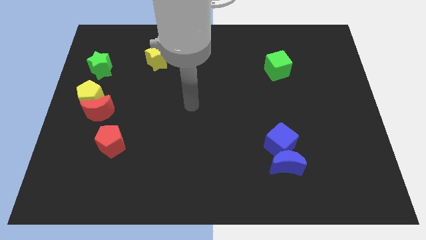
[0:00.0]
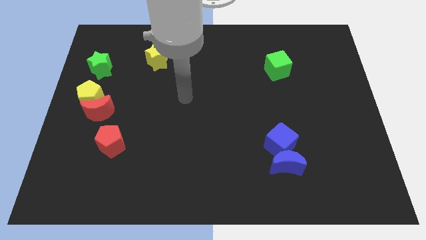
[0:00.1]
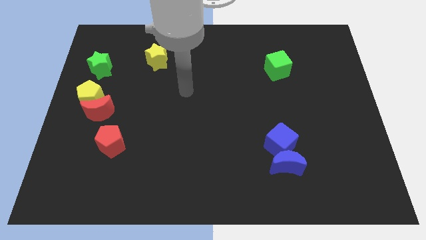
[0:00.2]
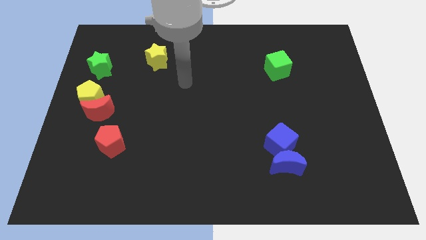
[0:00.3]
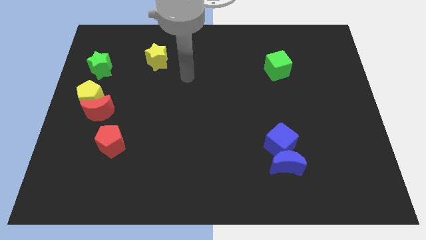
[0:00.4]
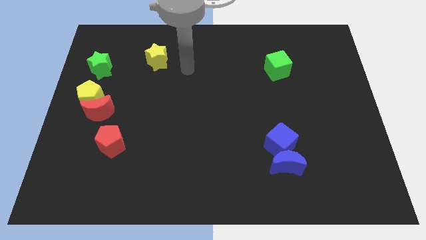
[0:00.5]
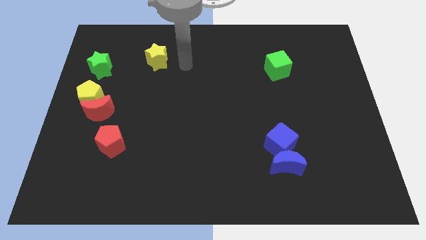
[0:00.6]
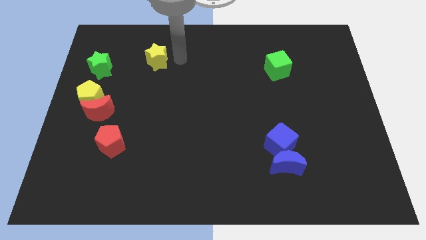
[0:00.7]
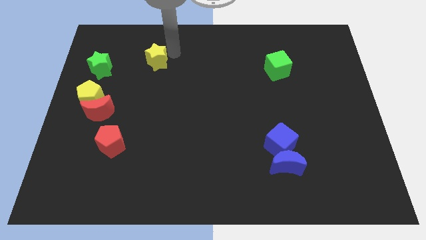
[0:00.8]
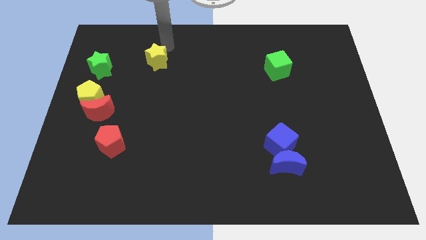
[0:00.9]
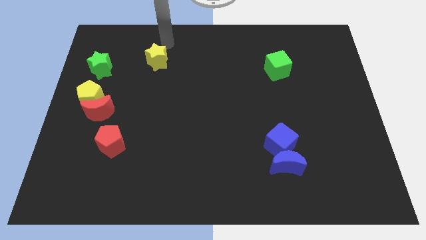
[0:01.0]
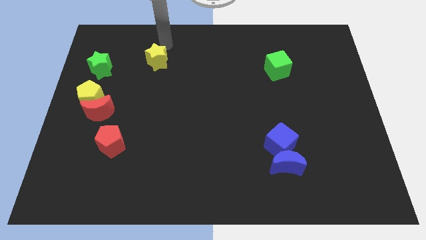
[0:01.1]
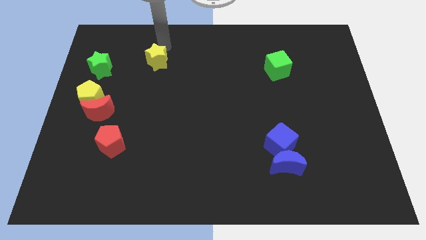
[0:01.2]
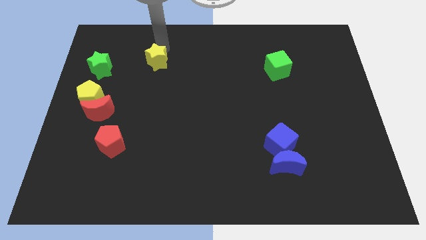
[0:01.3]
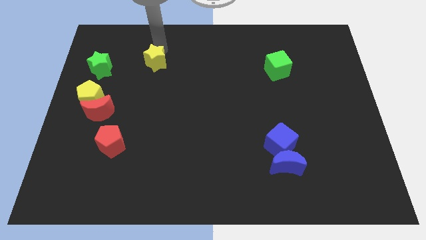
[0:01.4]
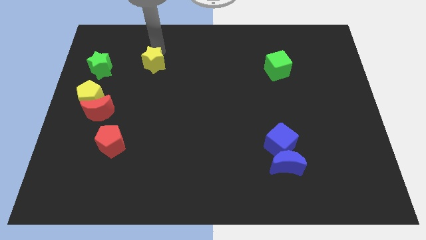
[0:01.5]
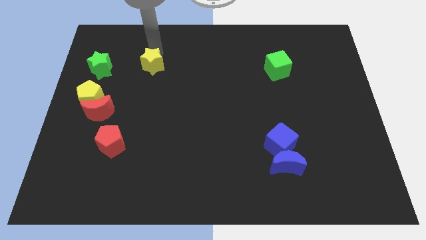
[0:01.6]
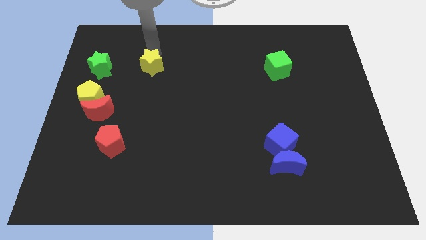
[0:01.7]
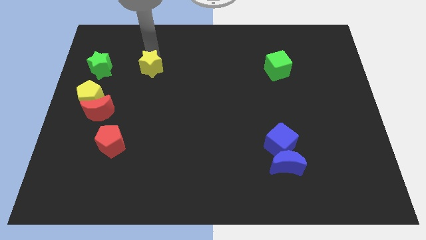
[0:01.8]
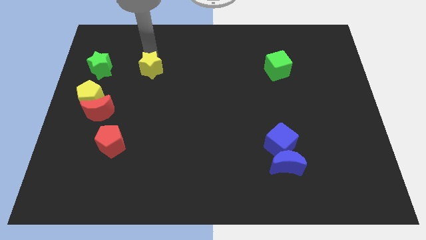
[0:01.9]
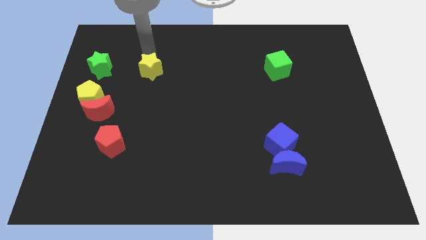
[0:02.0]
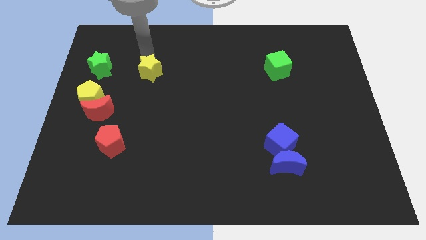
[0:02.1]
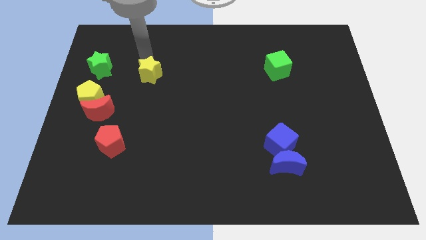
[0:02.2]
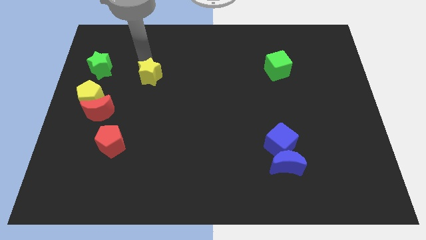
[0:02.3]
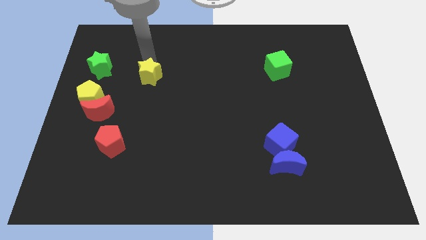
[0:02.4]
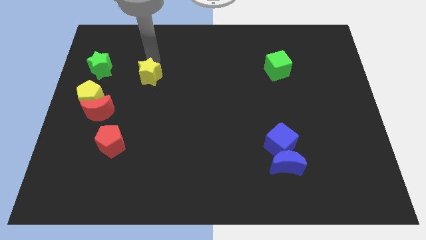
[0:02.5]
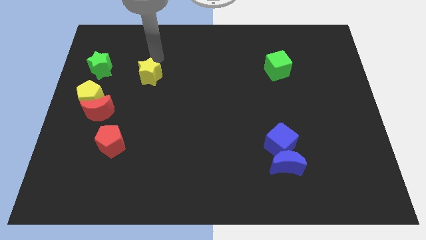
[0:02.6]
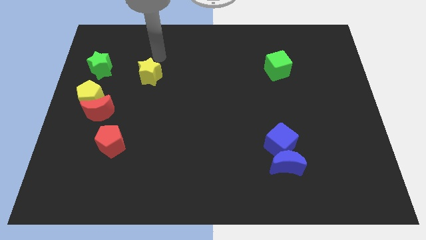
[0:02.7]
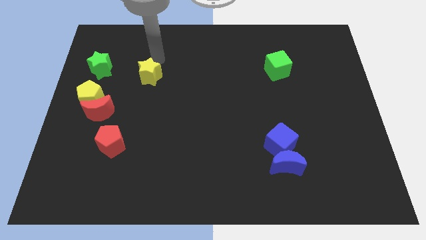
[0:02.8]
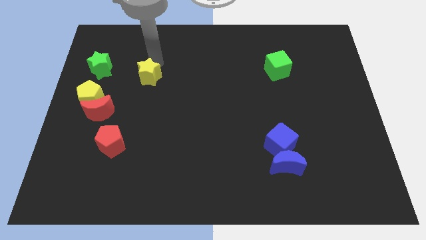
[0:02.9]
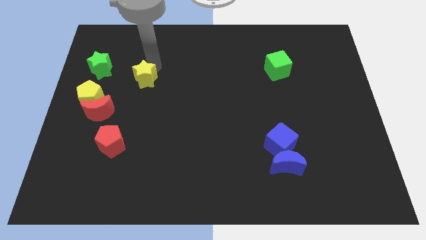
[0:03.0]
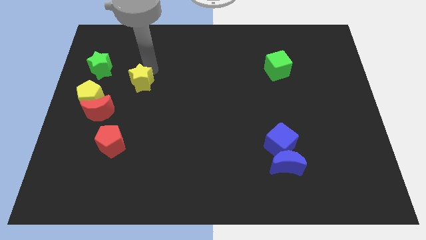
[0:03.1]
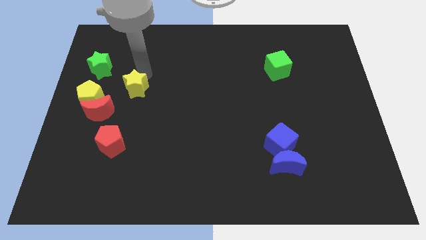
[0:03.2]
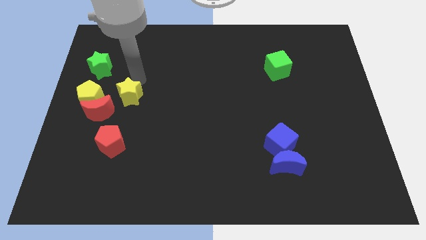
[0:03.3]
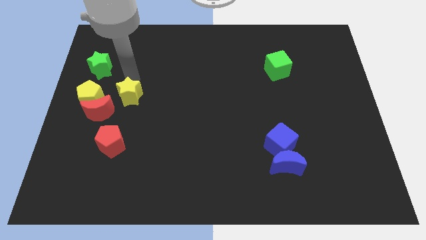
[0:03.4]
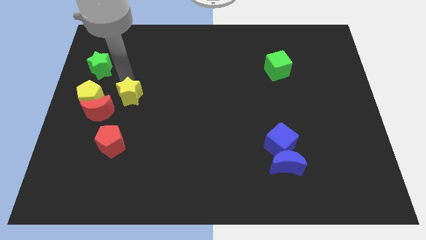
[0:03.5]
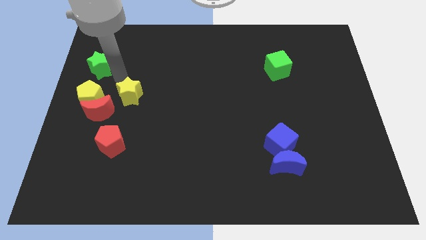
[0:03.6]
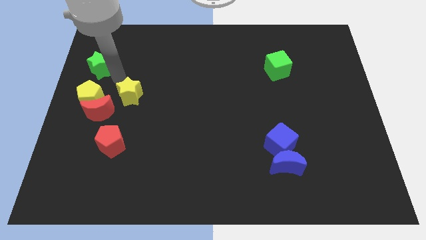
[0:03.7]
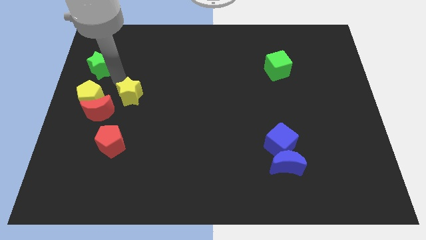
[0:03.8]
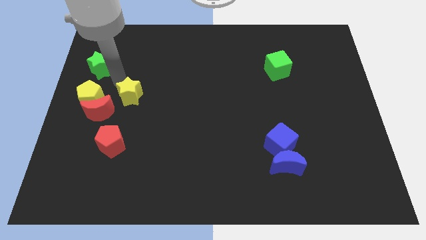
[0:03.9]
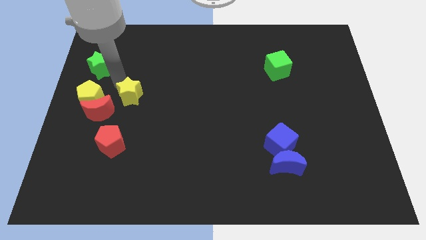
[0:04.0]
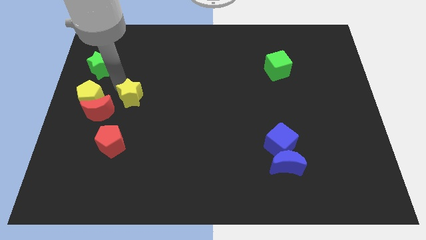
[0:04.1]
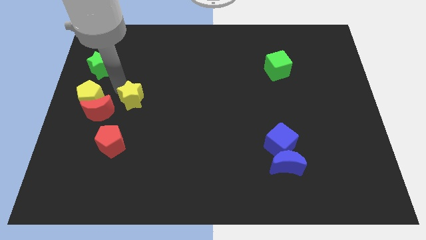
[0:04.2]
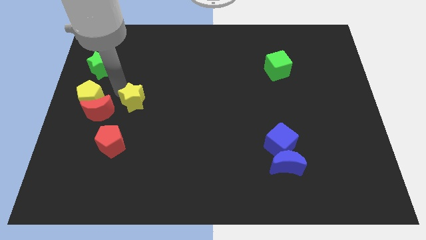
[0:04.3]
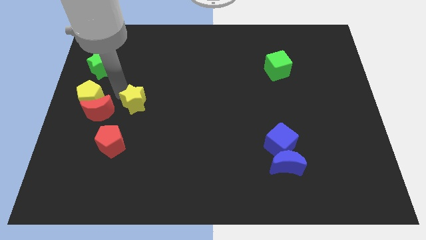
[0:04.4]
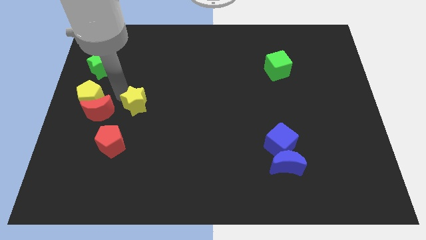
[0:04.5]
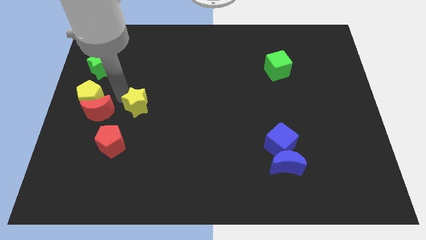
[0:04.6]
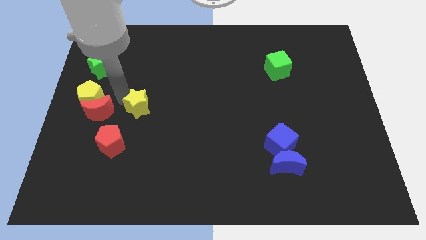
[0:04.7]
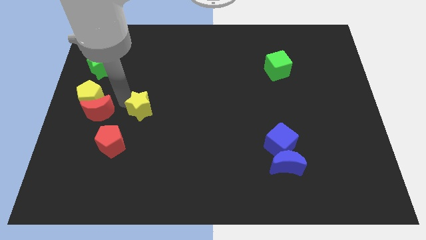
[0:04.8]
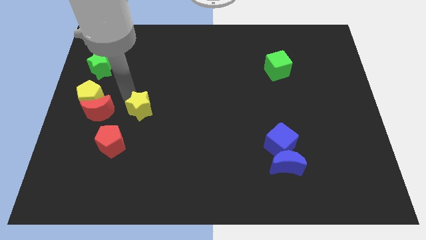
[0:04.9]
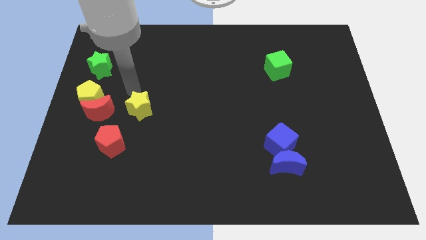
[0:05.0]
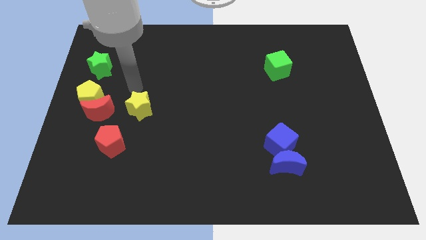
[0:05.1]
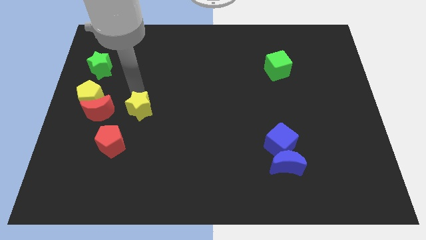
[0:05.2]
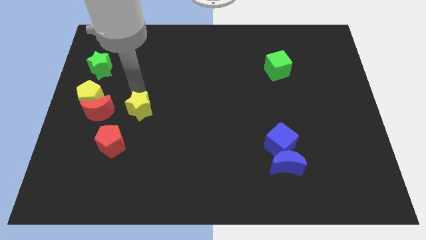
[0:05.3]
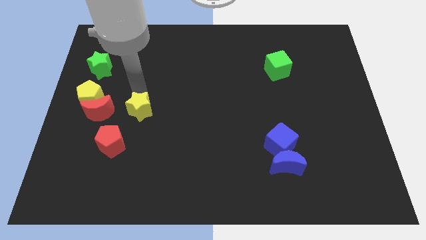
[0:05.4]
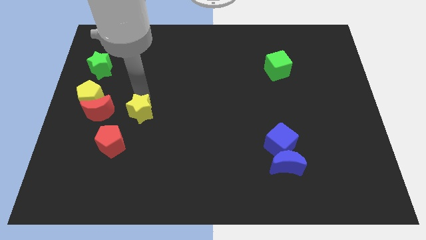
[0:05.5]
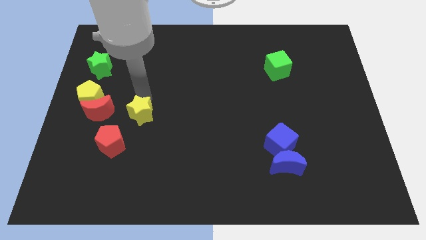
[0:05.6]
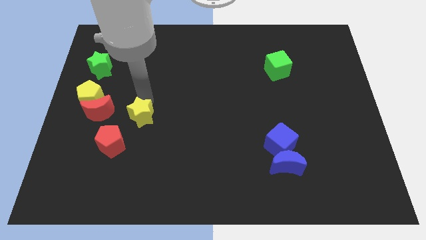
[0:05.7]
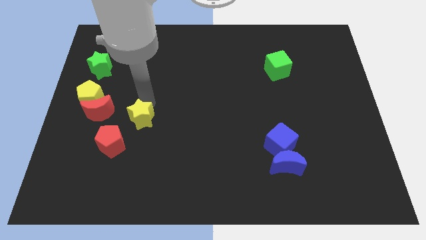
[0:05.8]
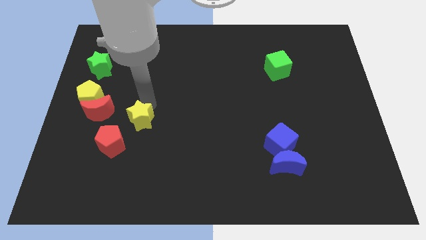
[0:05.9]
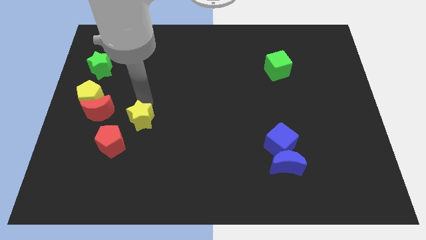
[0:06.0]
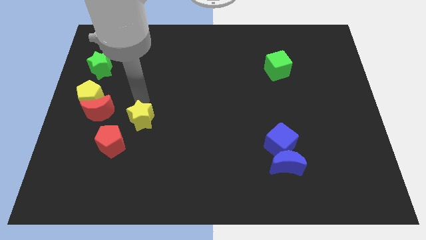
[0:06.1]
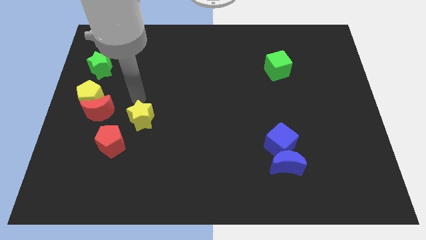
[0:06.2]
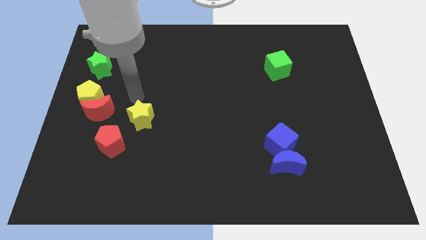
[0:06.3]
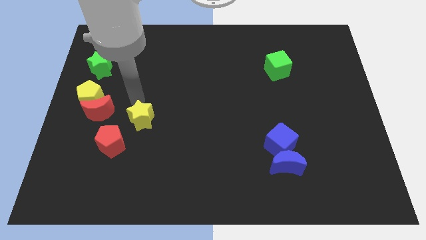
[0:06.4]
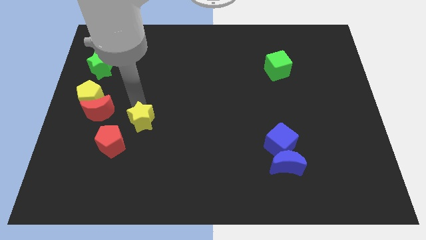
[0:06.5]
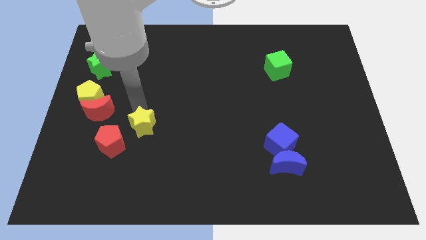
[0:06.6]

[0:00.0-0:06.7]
slide the yellow star downwards

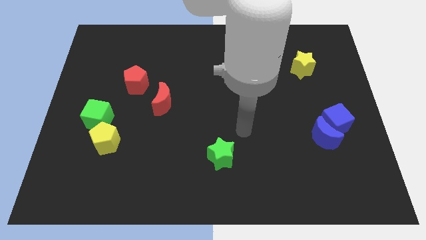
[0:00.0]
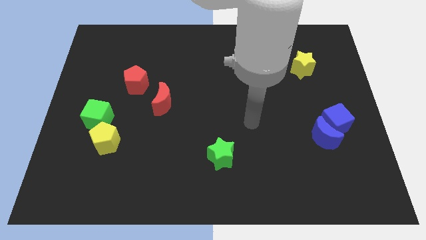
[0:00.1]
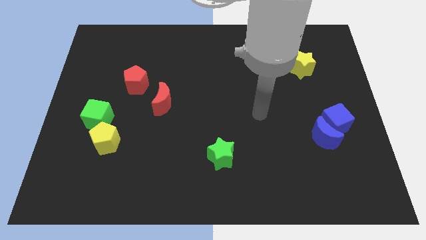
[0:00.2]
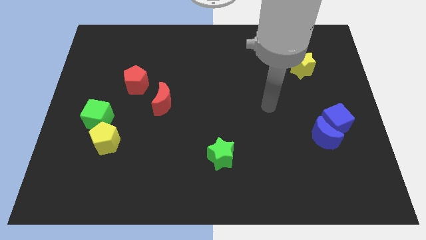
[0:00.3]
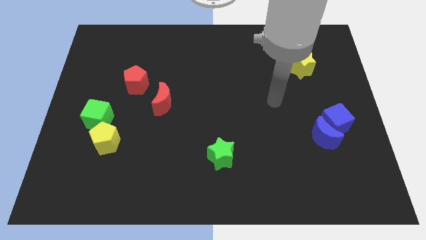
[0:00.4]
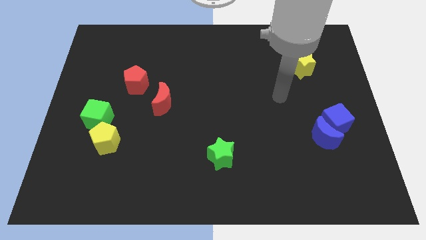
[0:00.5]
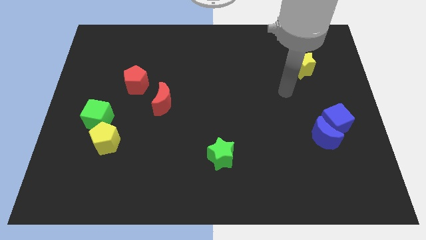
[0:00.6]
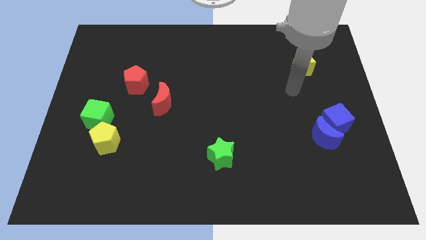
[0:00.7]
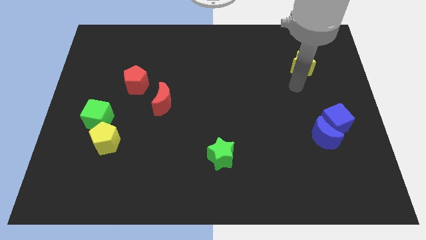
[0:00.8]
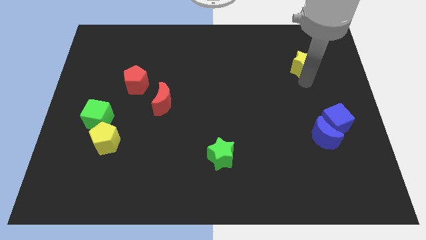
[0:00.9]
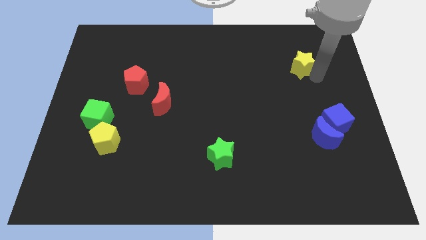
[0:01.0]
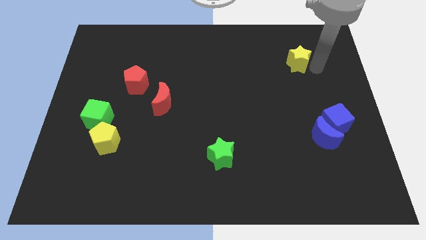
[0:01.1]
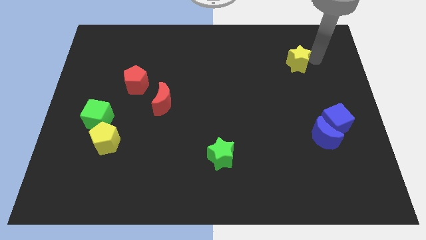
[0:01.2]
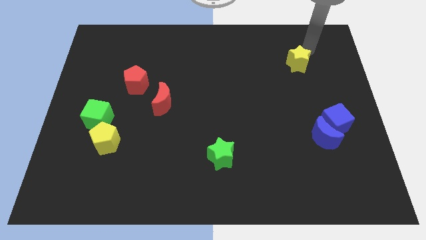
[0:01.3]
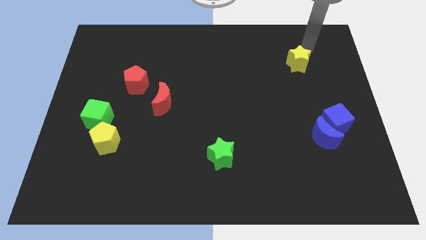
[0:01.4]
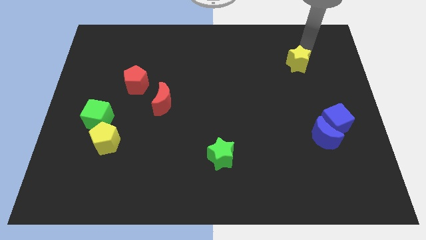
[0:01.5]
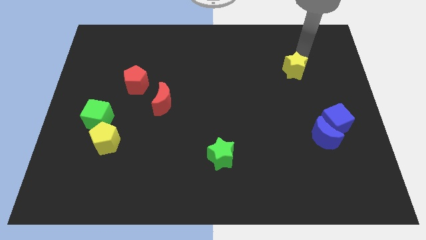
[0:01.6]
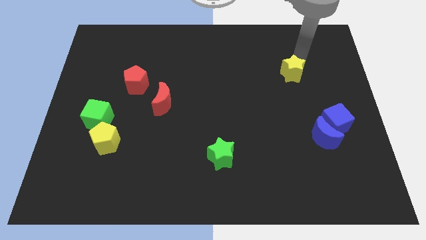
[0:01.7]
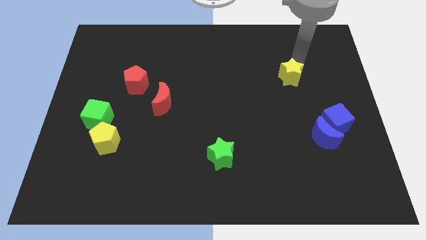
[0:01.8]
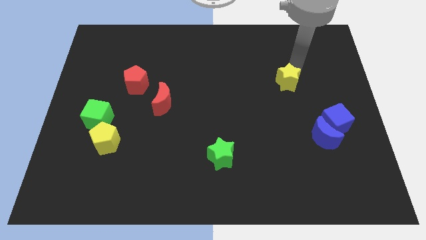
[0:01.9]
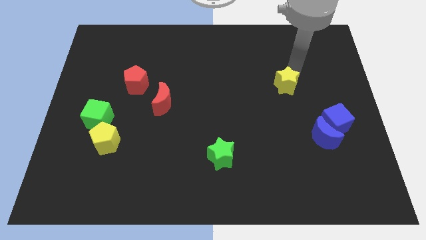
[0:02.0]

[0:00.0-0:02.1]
push the yellow star slightly down and then to the left
